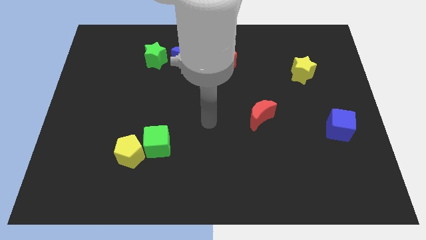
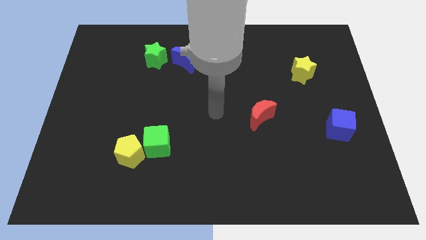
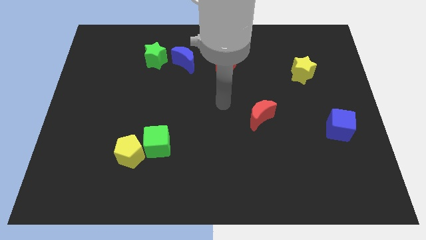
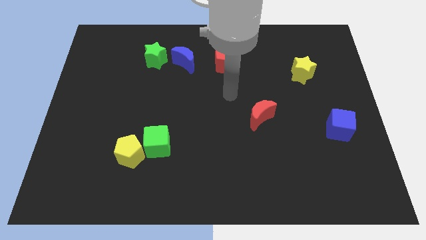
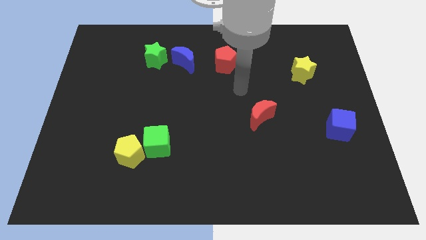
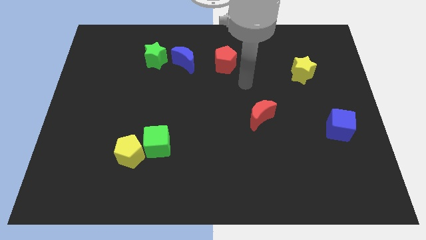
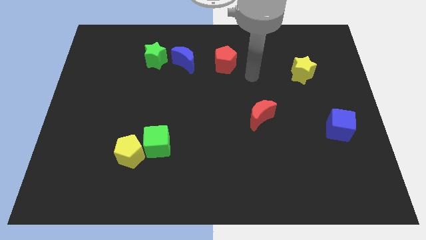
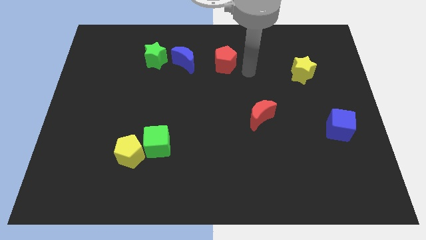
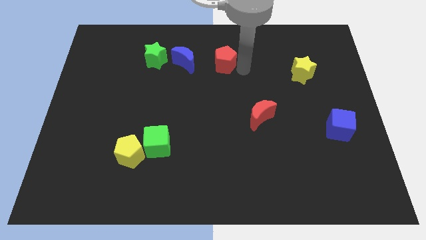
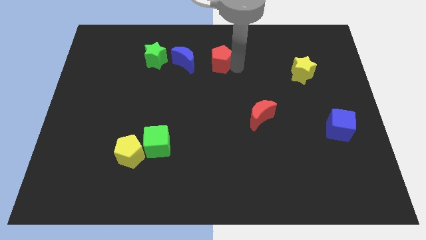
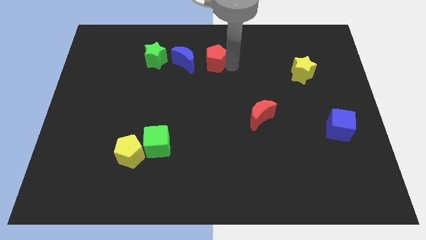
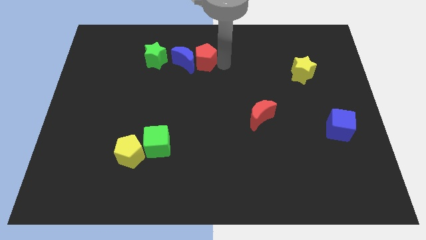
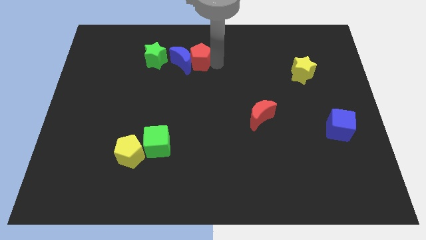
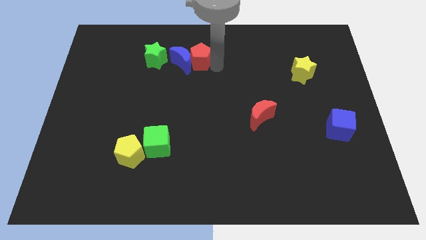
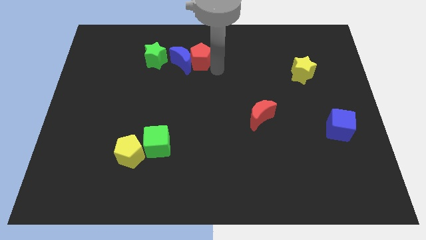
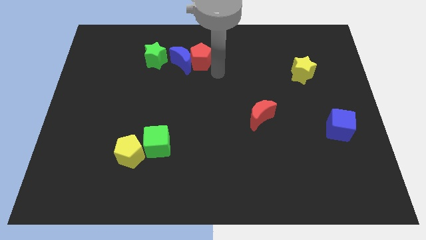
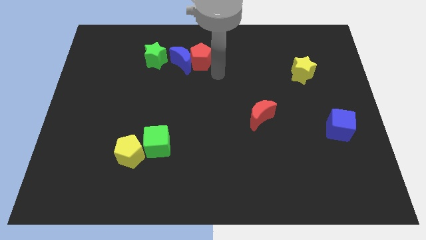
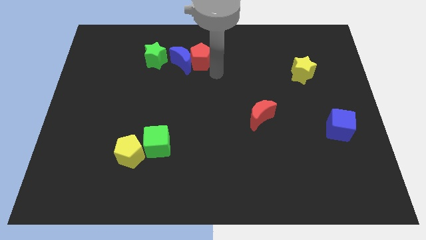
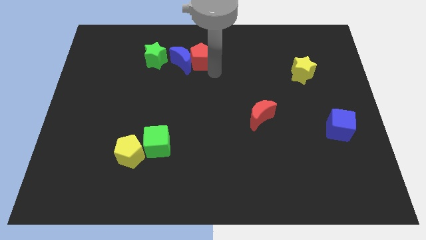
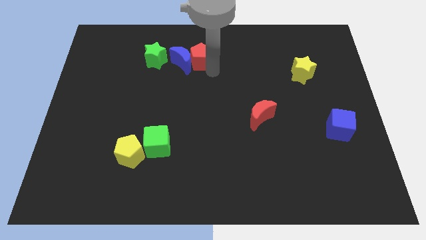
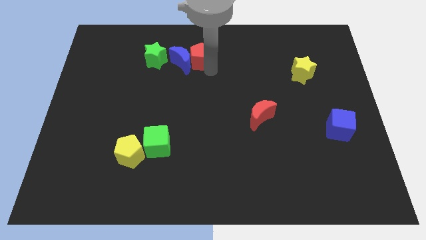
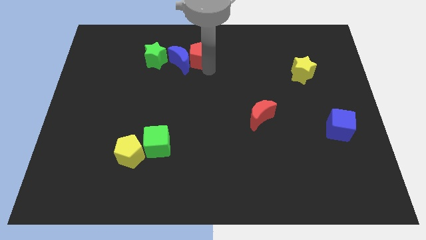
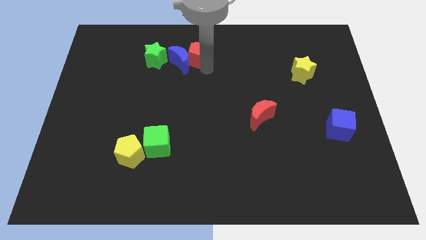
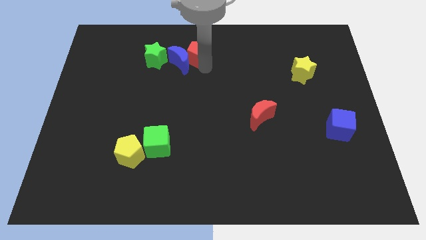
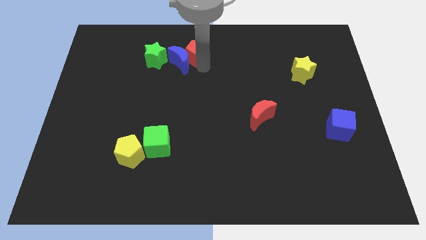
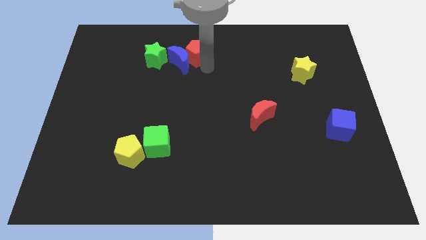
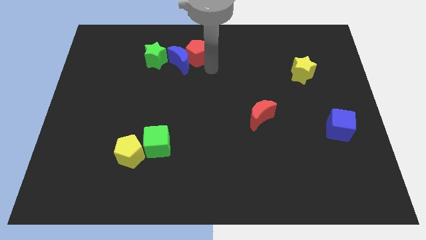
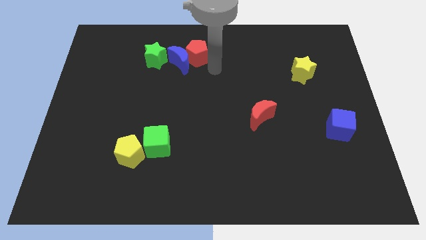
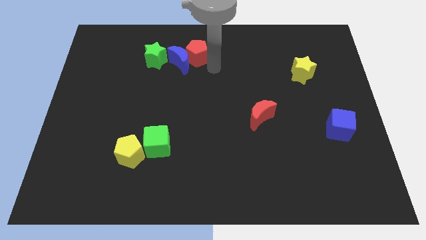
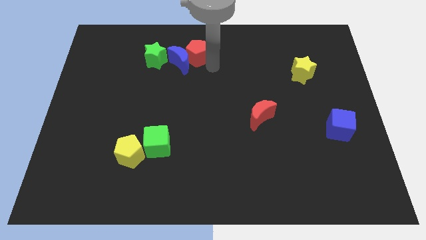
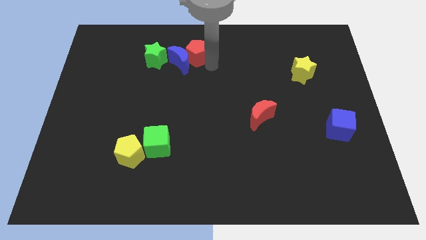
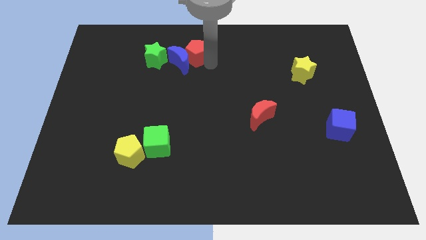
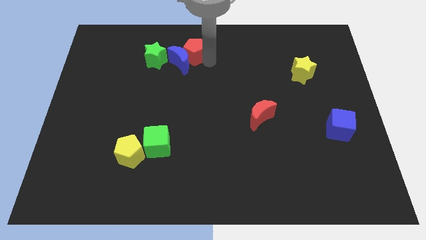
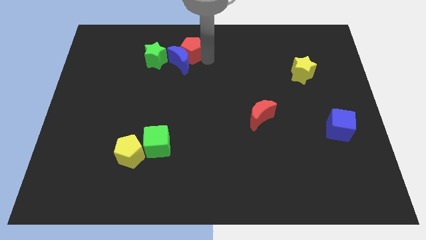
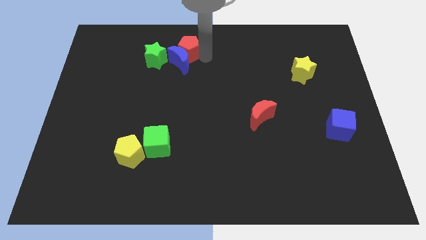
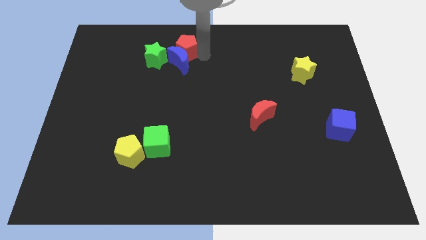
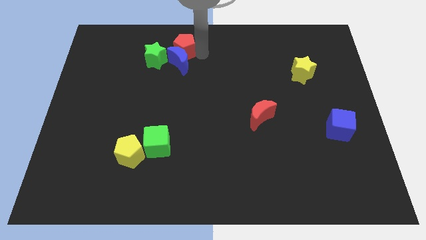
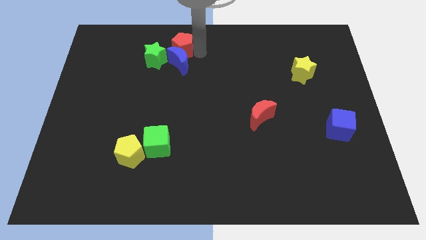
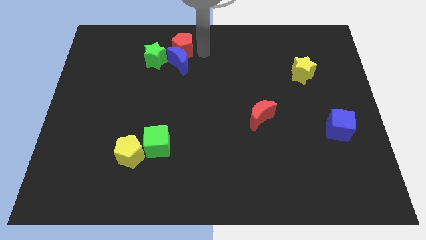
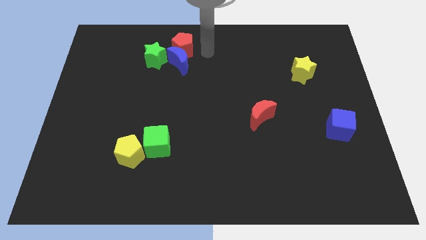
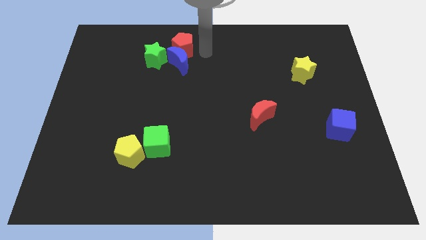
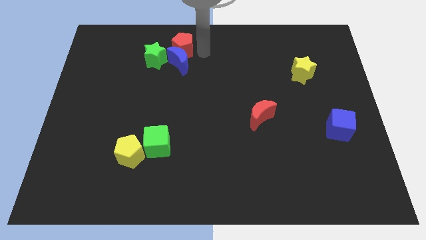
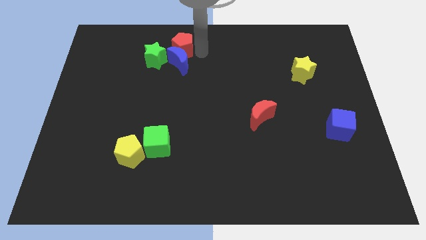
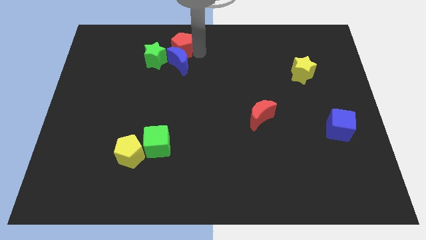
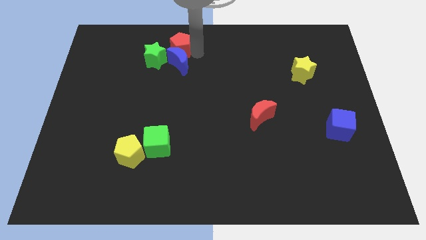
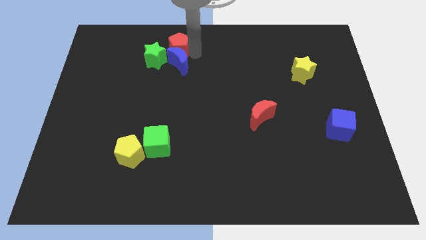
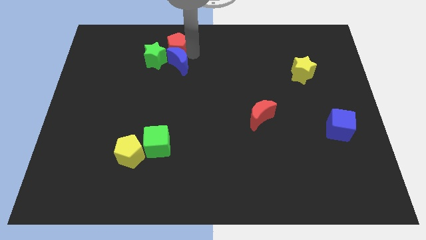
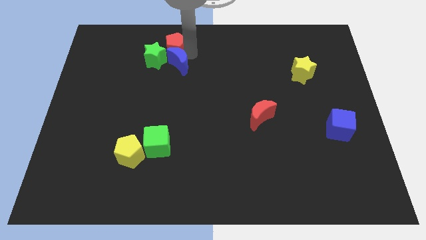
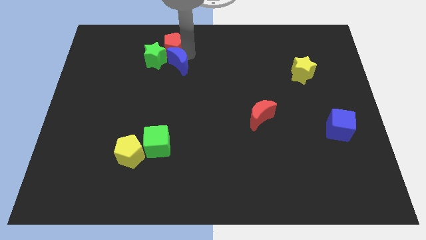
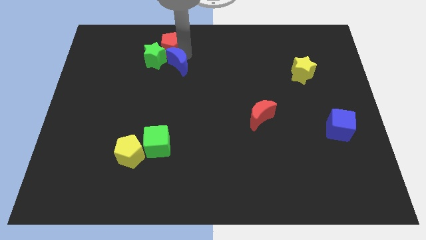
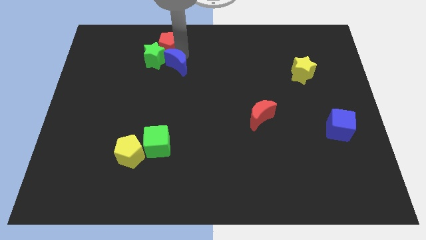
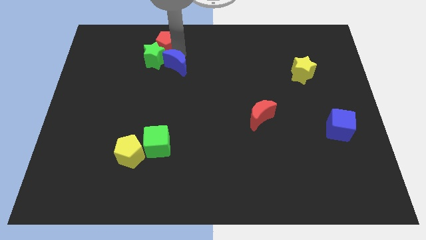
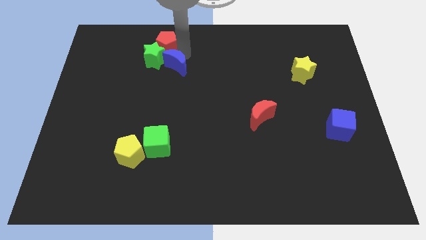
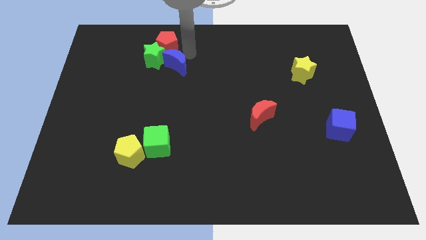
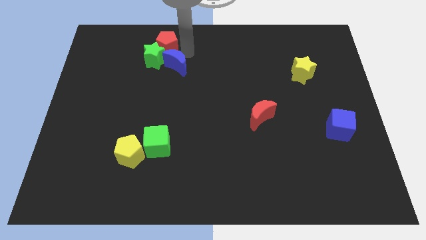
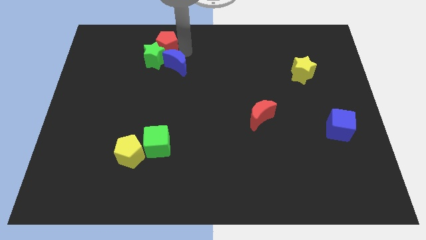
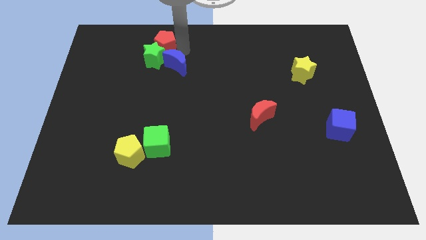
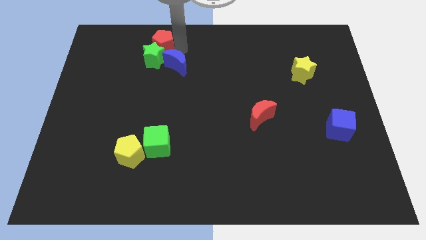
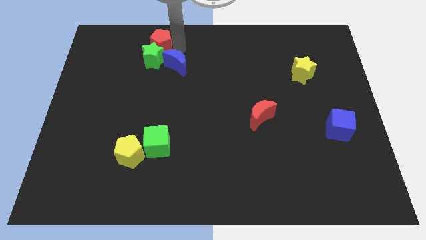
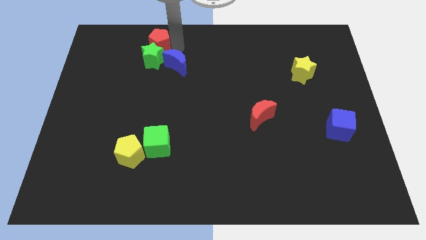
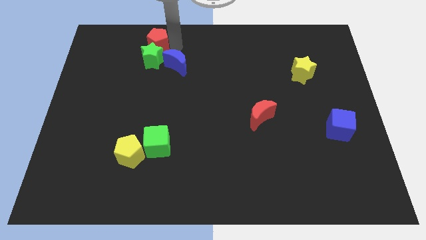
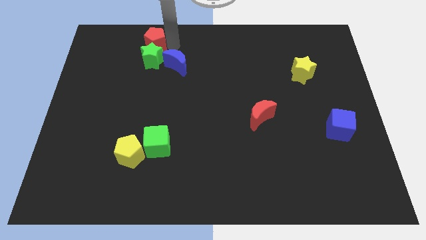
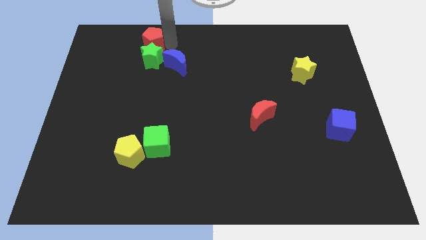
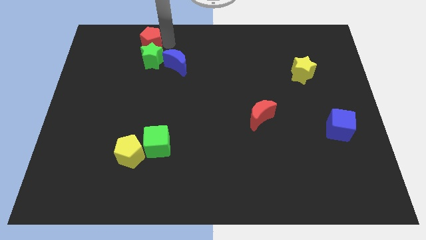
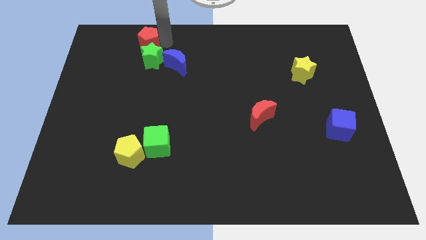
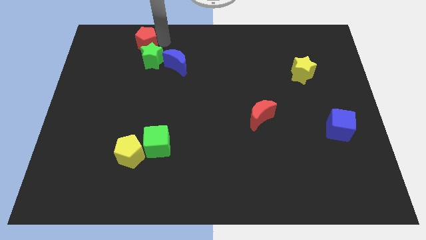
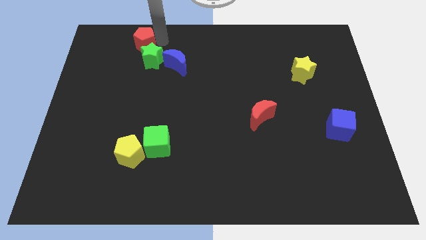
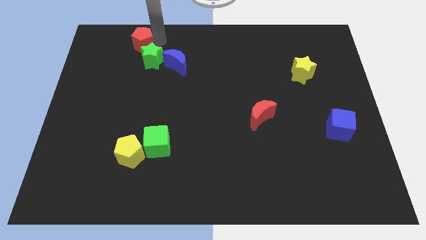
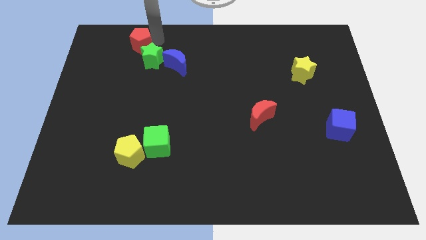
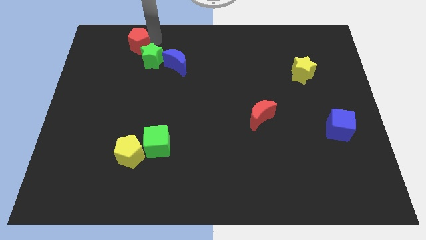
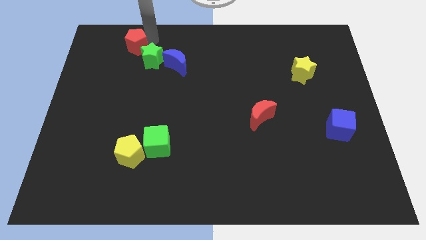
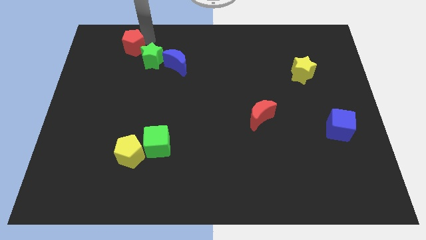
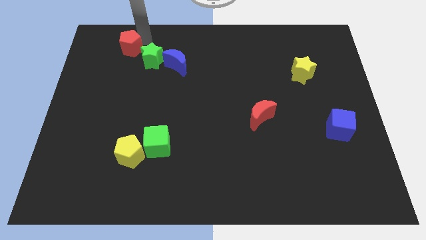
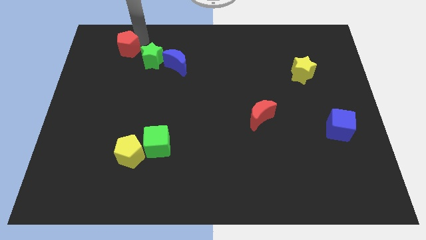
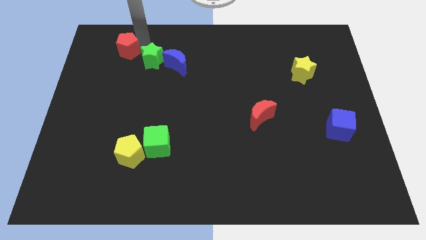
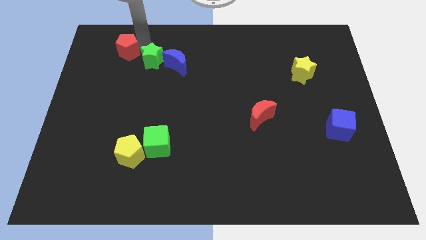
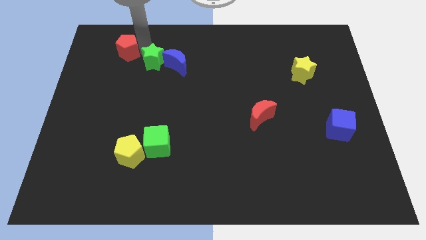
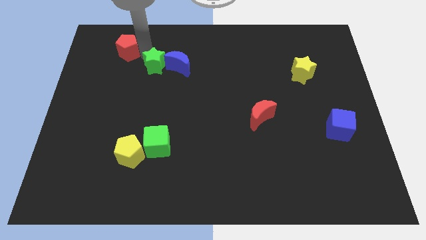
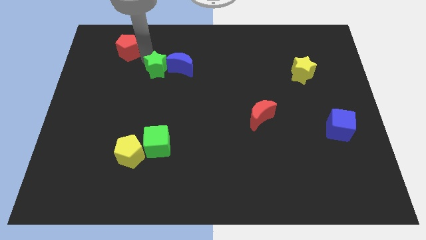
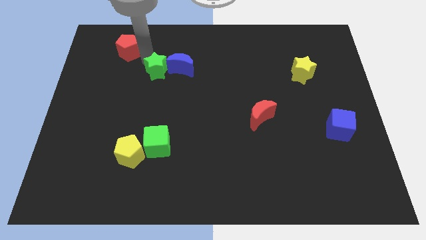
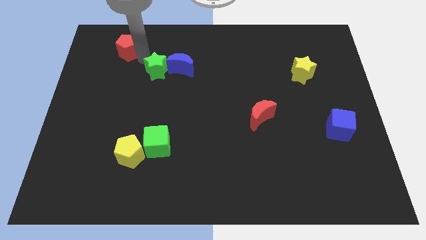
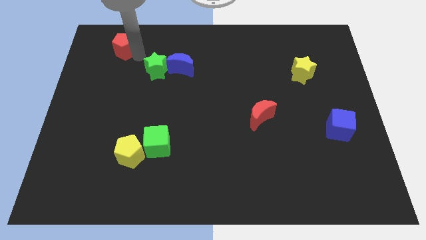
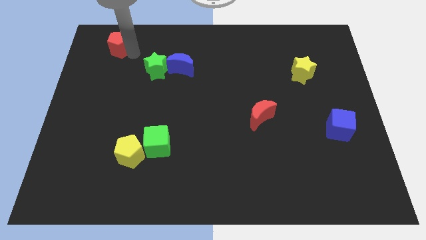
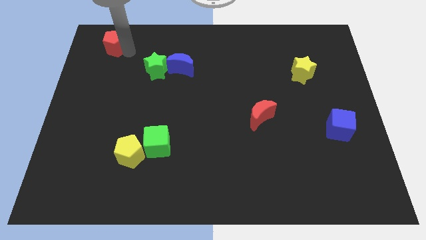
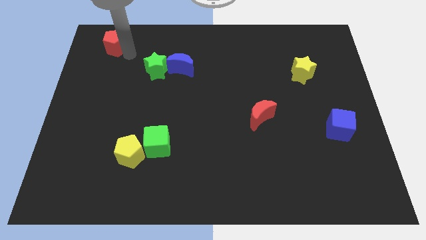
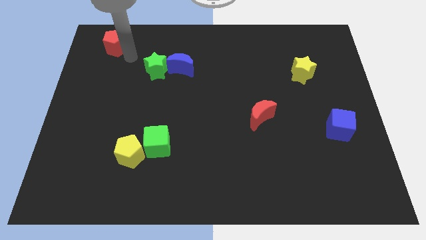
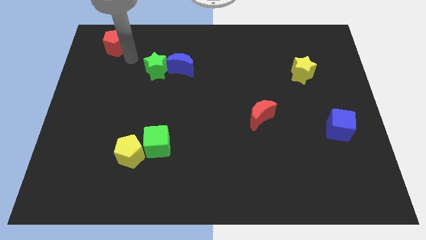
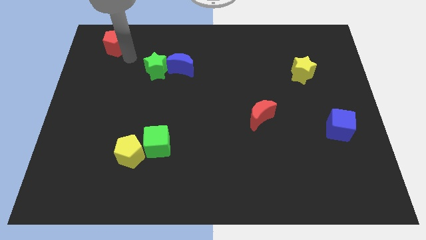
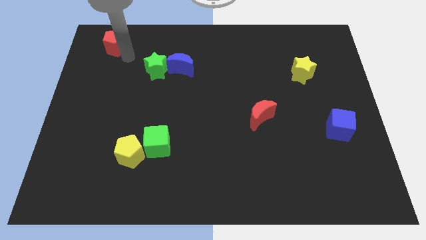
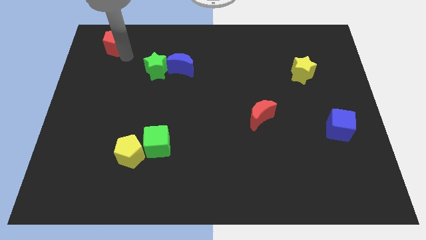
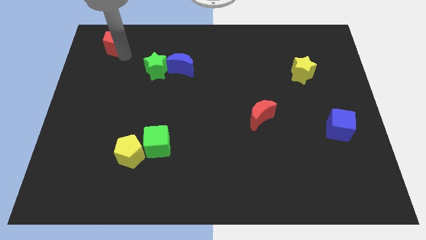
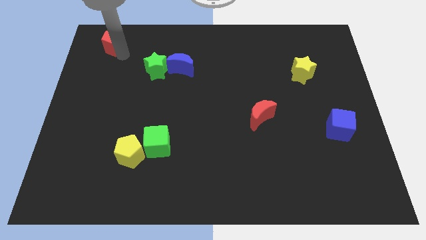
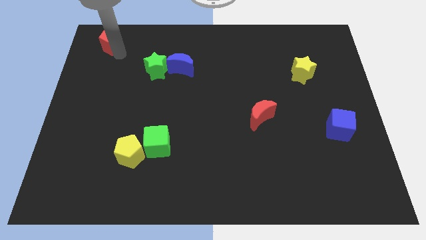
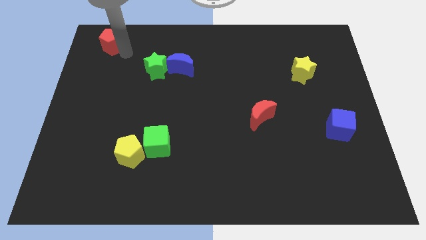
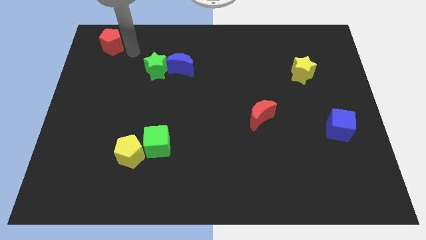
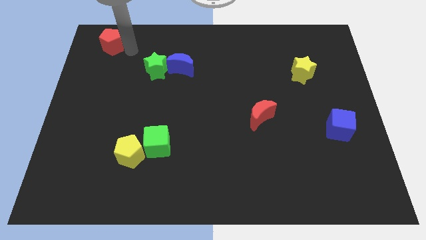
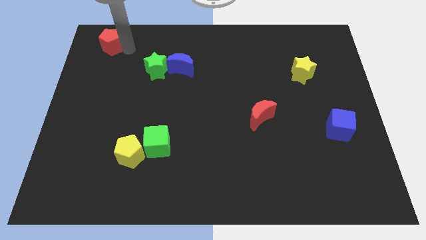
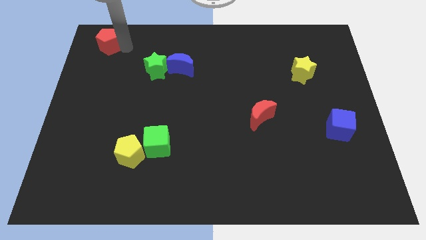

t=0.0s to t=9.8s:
move the red pentagon to the upper left corner
